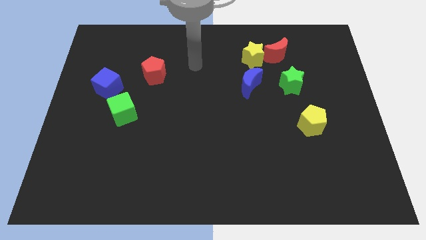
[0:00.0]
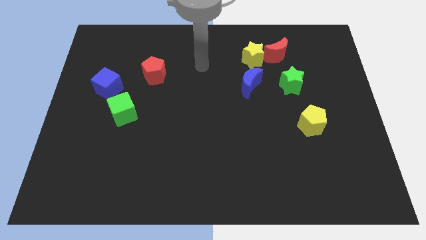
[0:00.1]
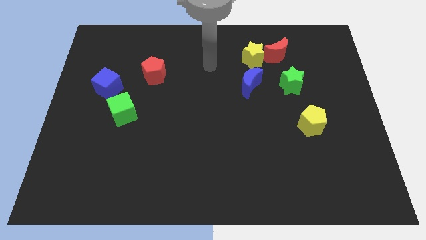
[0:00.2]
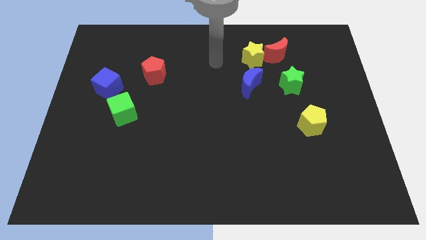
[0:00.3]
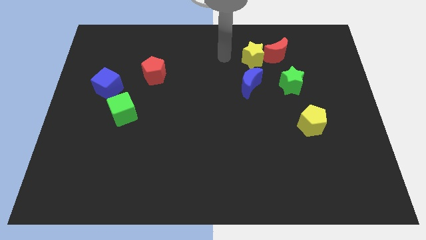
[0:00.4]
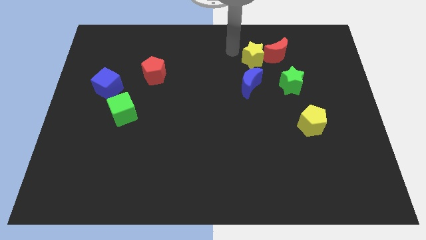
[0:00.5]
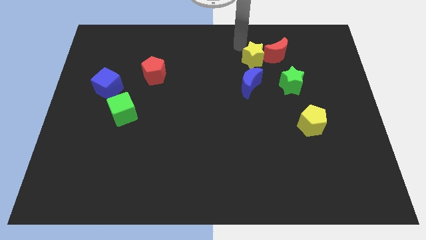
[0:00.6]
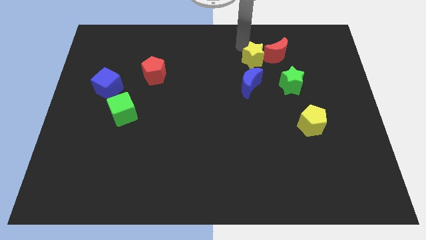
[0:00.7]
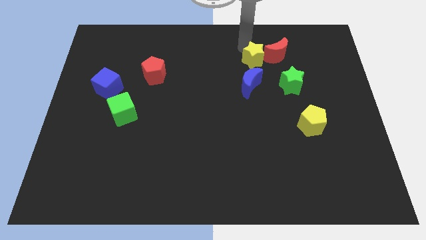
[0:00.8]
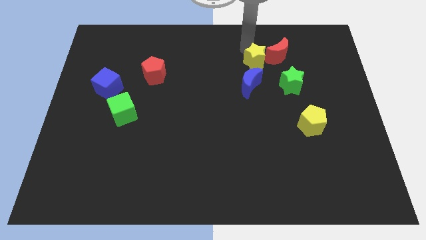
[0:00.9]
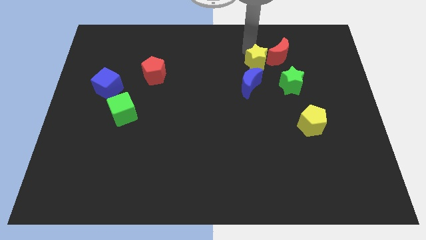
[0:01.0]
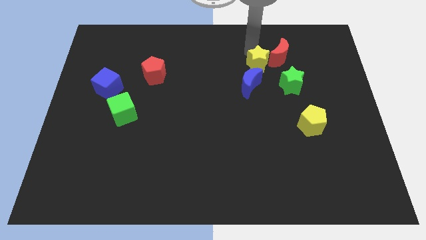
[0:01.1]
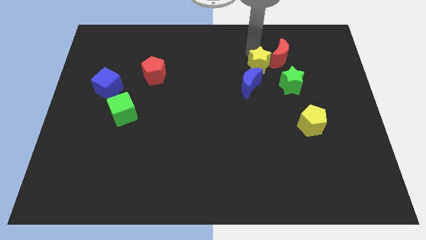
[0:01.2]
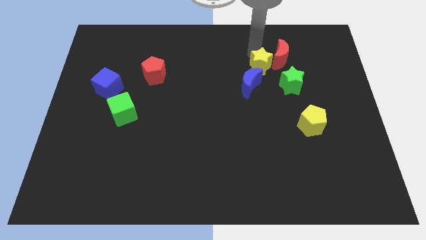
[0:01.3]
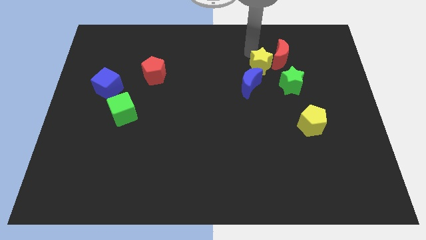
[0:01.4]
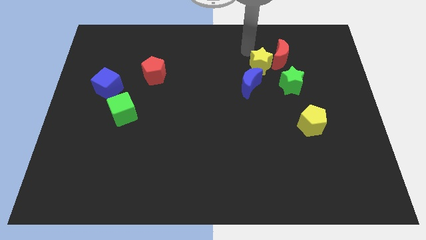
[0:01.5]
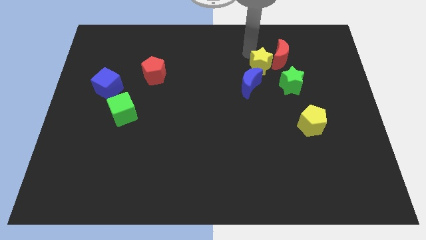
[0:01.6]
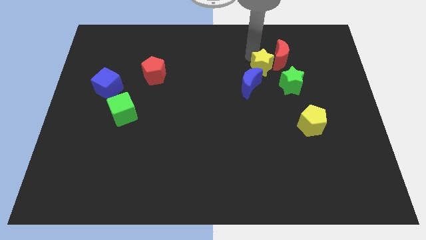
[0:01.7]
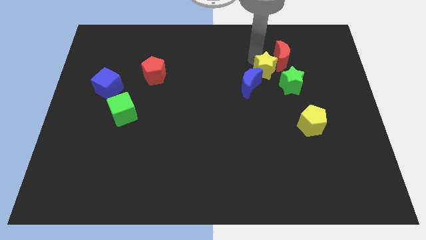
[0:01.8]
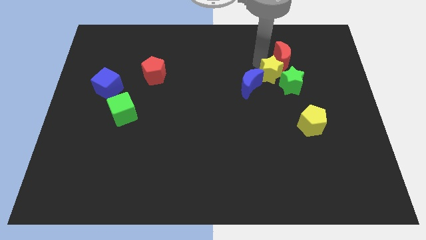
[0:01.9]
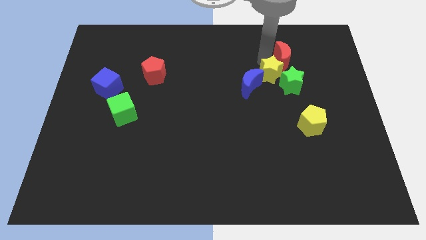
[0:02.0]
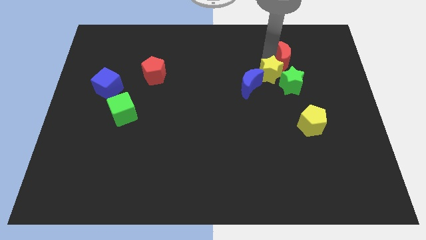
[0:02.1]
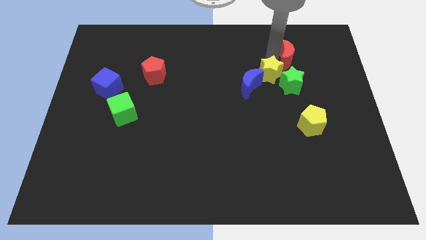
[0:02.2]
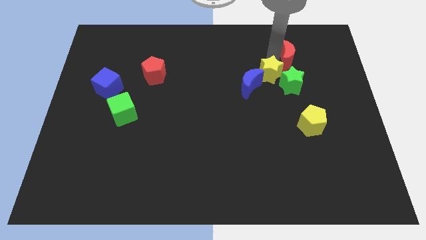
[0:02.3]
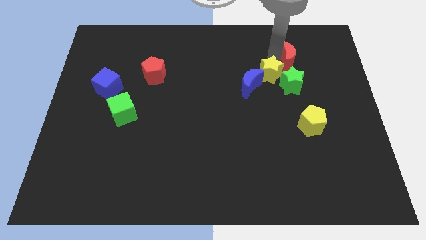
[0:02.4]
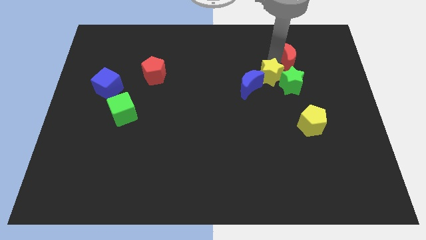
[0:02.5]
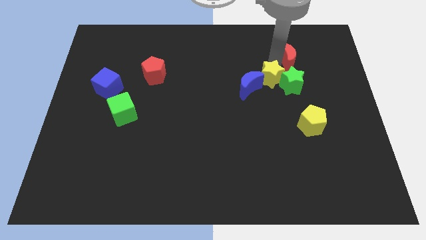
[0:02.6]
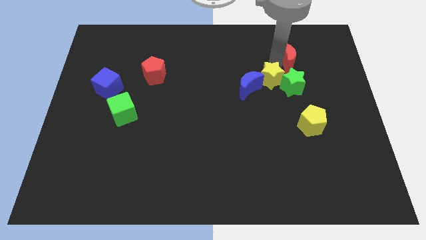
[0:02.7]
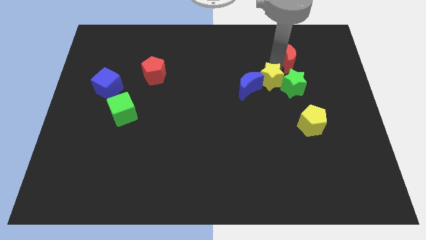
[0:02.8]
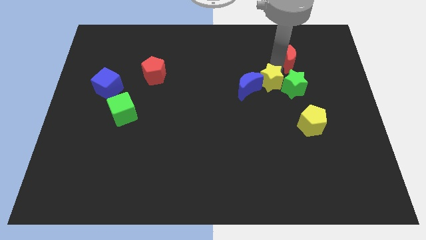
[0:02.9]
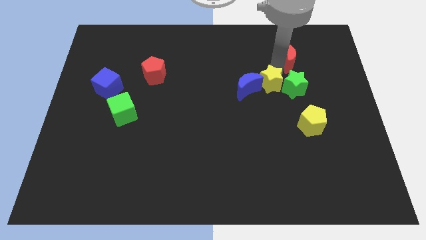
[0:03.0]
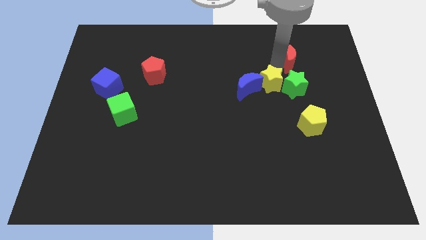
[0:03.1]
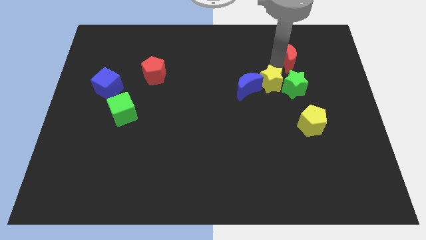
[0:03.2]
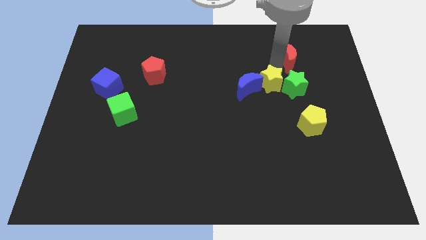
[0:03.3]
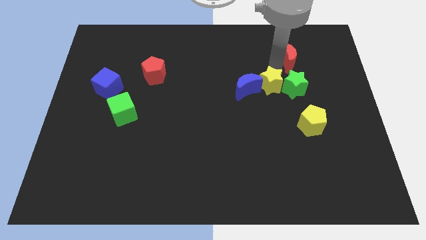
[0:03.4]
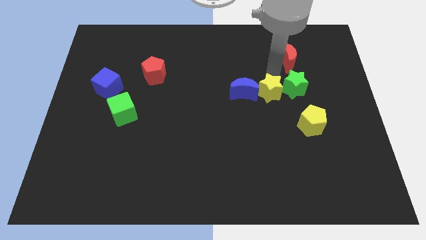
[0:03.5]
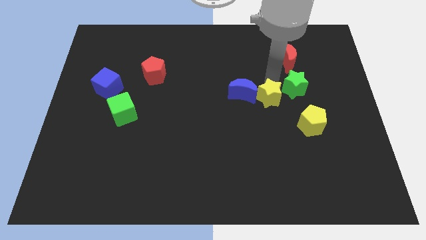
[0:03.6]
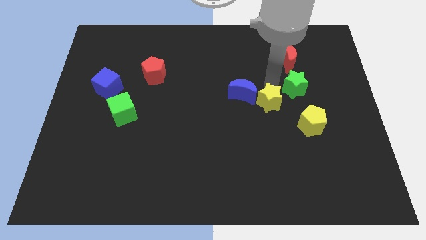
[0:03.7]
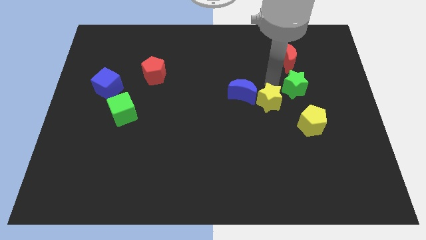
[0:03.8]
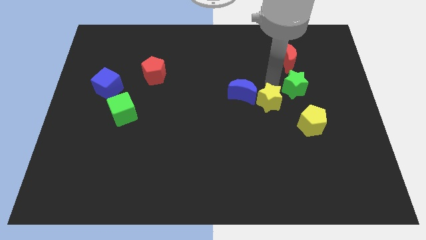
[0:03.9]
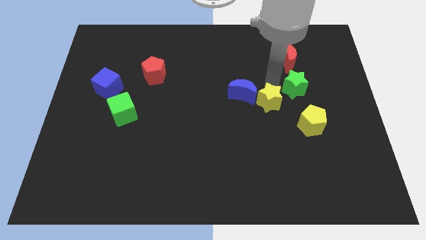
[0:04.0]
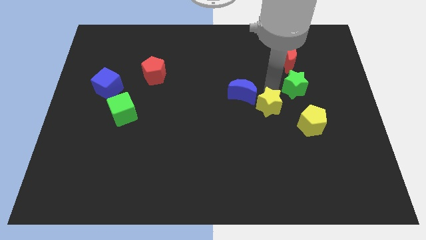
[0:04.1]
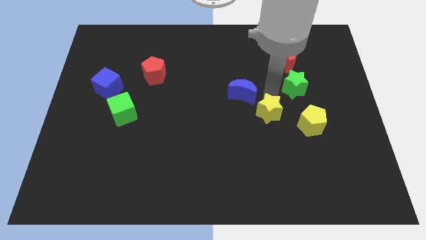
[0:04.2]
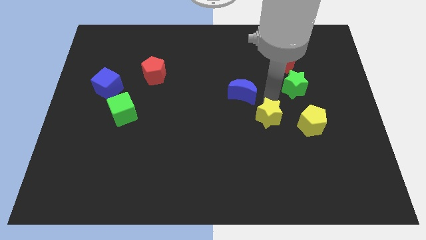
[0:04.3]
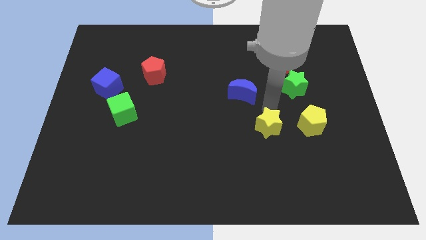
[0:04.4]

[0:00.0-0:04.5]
move the yellow star down

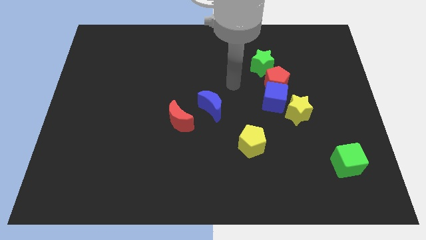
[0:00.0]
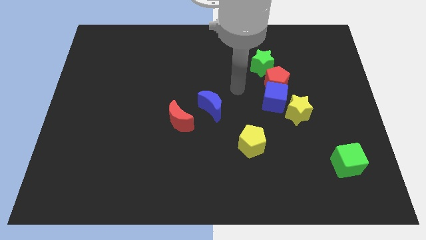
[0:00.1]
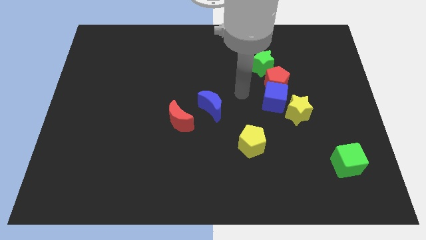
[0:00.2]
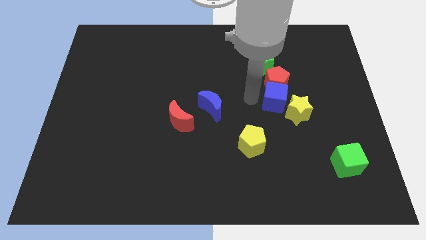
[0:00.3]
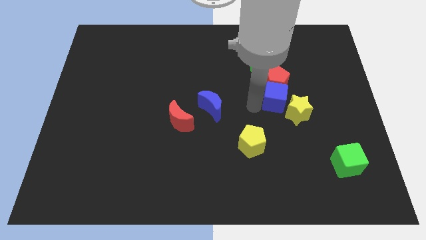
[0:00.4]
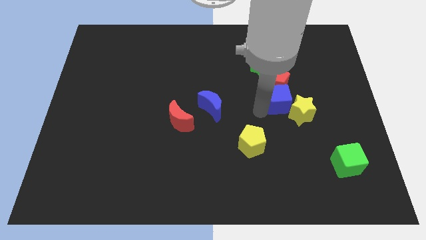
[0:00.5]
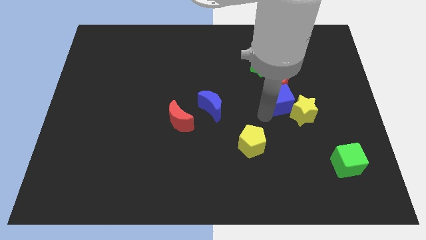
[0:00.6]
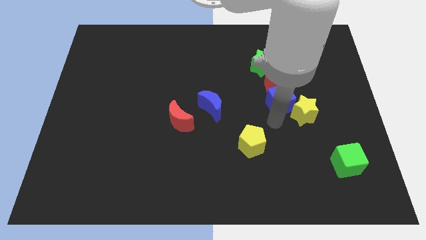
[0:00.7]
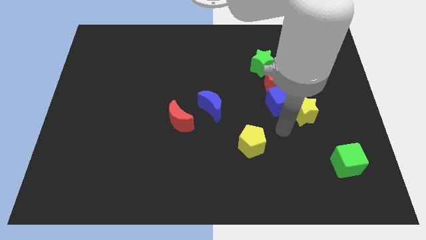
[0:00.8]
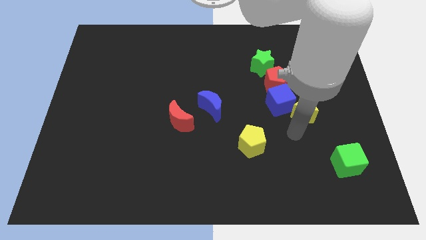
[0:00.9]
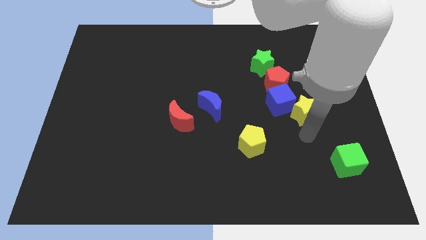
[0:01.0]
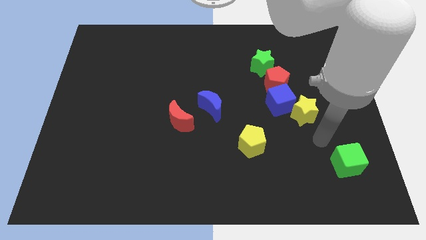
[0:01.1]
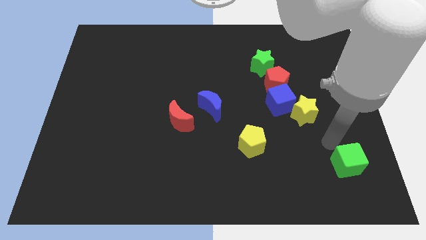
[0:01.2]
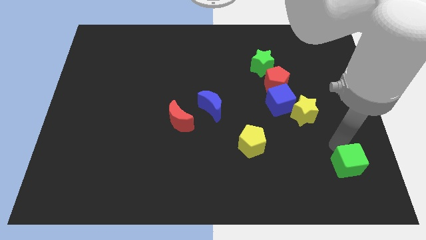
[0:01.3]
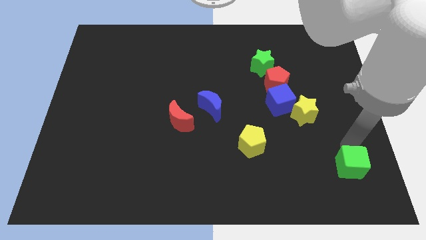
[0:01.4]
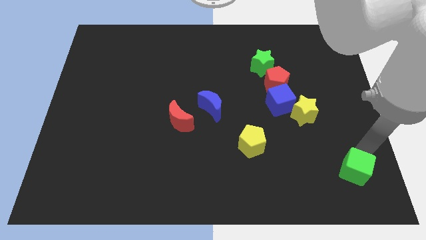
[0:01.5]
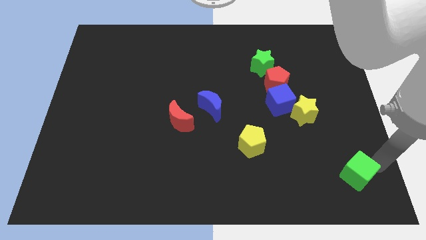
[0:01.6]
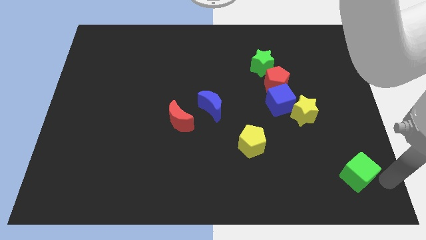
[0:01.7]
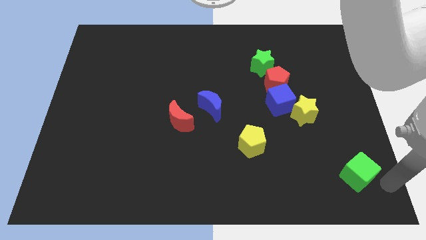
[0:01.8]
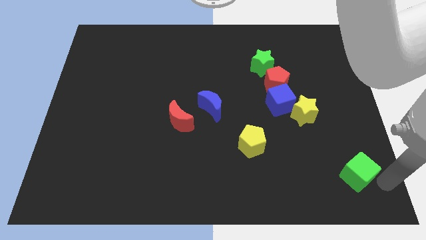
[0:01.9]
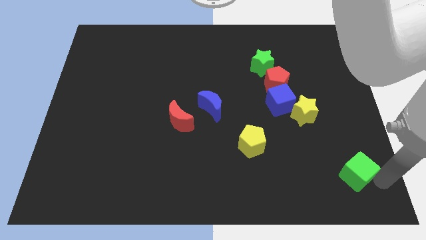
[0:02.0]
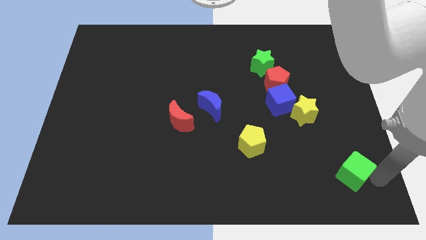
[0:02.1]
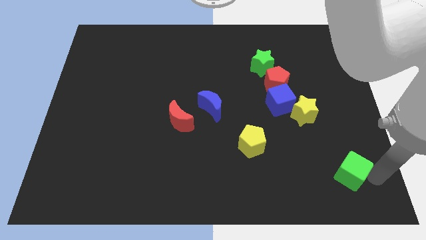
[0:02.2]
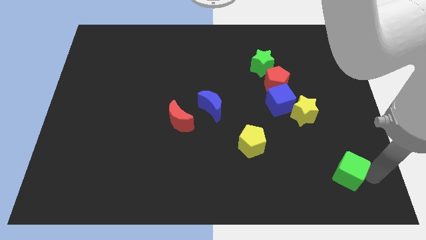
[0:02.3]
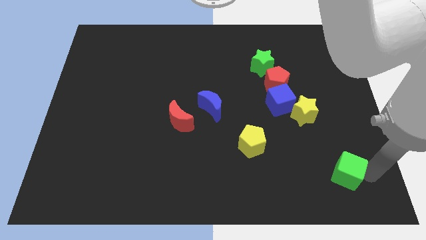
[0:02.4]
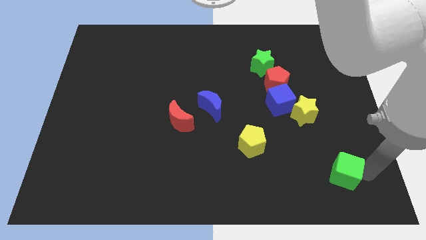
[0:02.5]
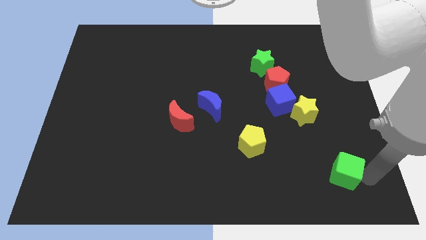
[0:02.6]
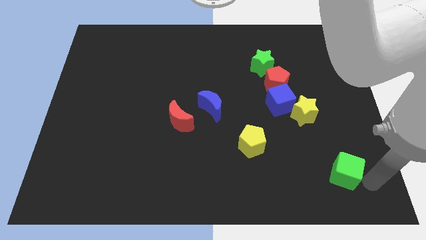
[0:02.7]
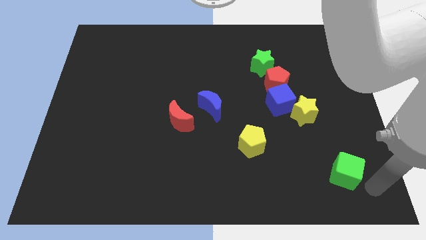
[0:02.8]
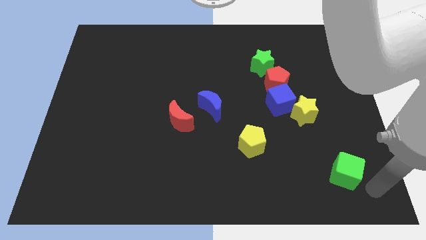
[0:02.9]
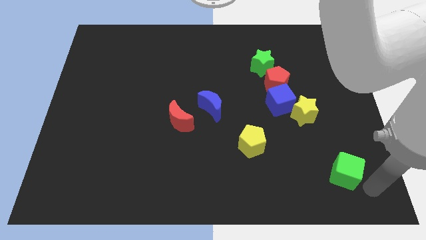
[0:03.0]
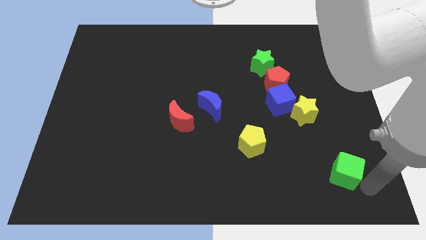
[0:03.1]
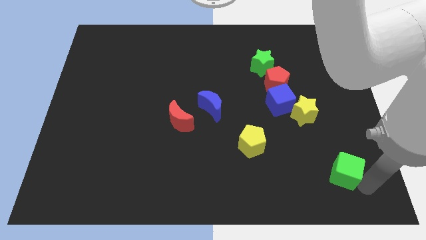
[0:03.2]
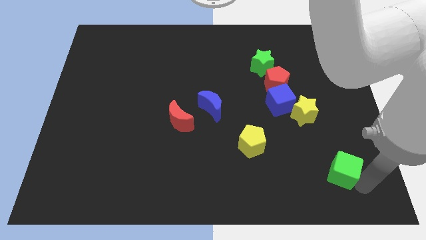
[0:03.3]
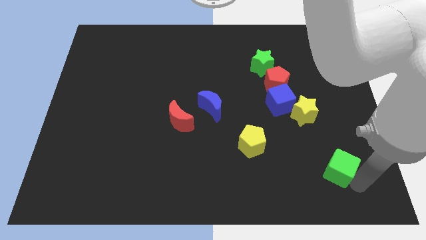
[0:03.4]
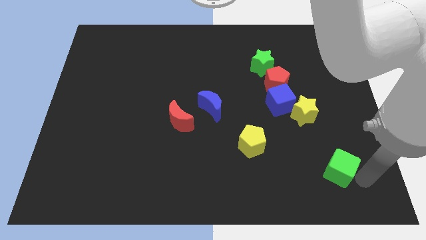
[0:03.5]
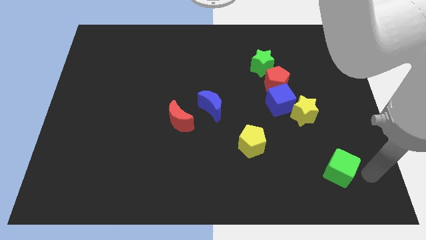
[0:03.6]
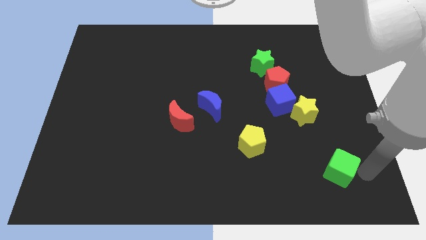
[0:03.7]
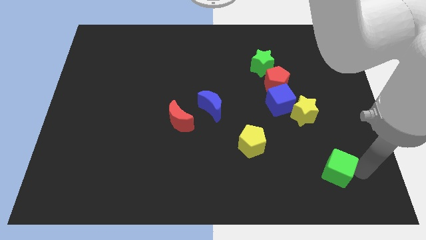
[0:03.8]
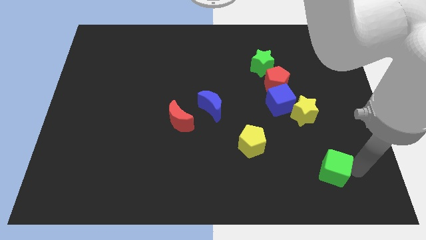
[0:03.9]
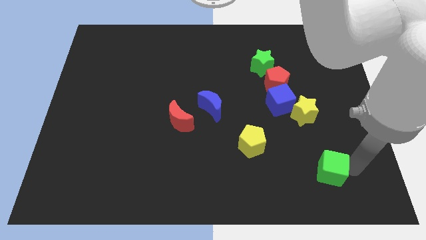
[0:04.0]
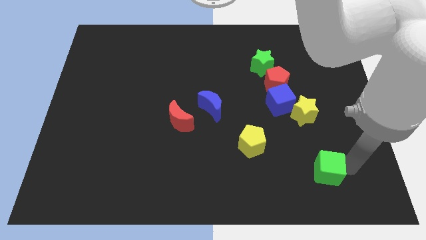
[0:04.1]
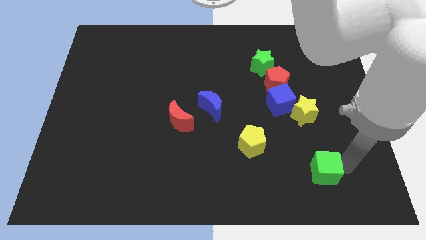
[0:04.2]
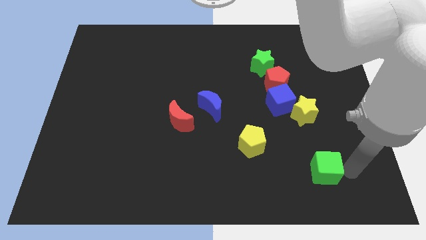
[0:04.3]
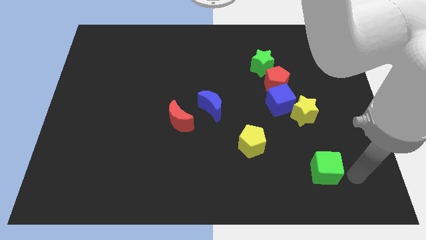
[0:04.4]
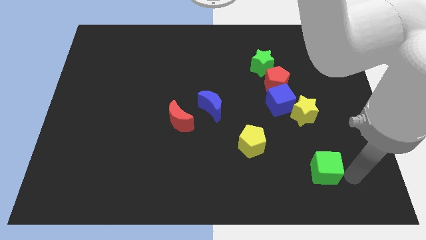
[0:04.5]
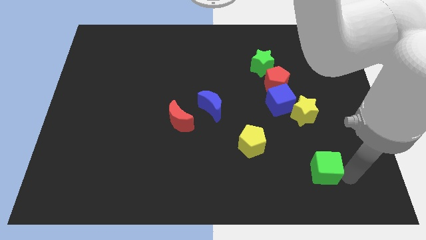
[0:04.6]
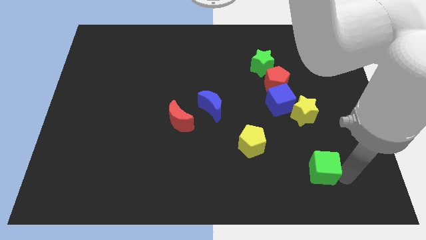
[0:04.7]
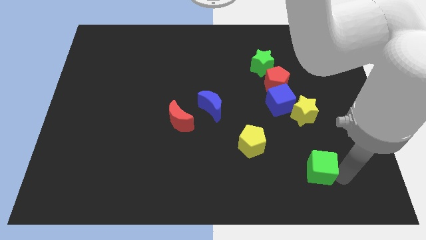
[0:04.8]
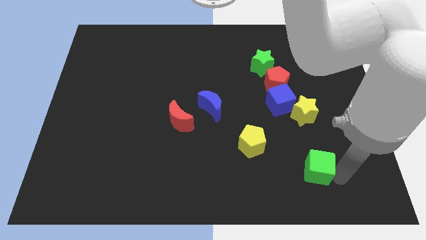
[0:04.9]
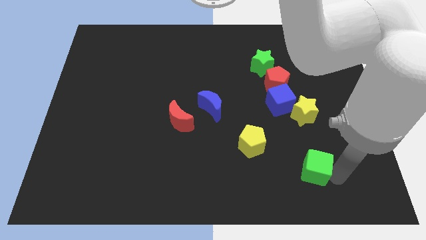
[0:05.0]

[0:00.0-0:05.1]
push the green cube to the left slightly
